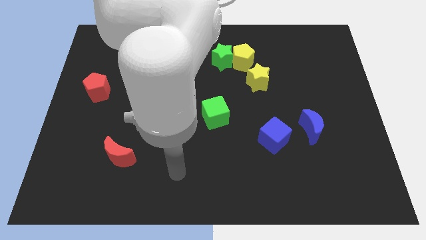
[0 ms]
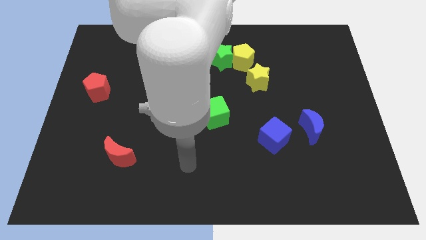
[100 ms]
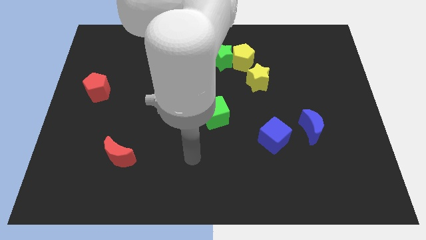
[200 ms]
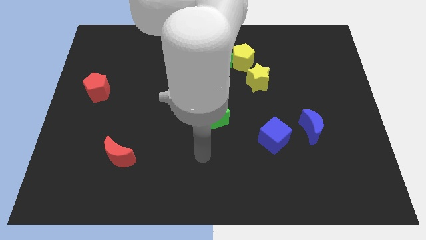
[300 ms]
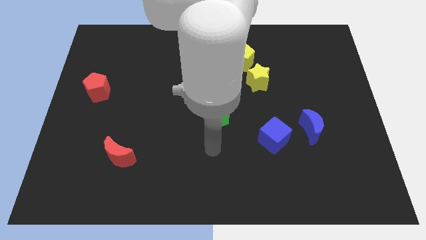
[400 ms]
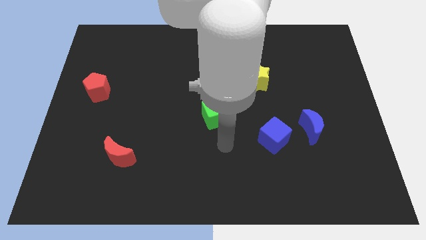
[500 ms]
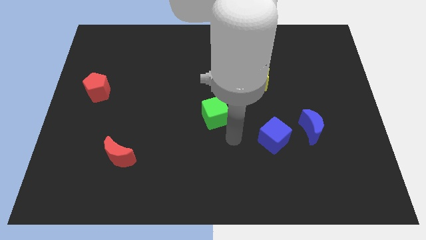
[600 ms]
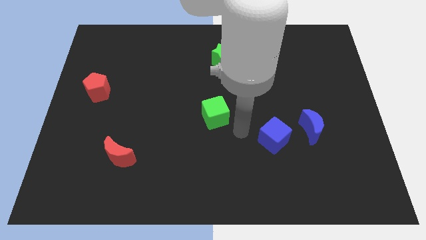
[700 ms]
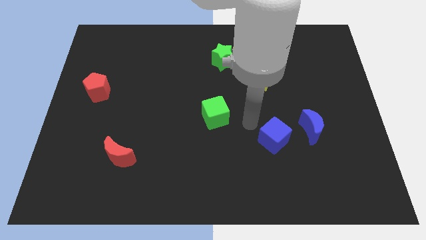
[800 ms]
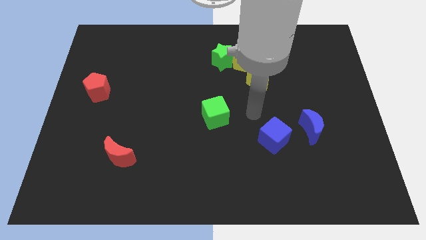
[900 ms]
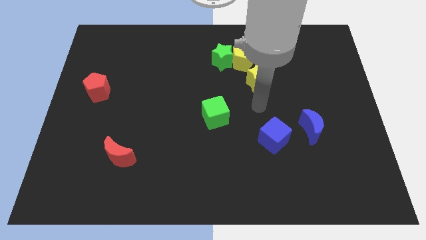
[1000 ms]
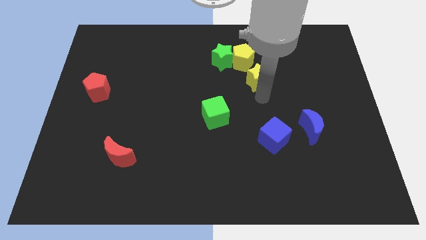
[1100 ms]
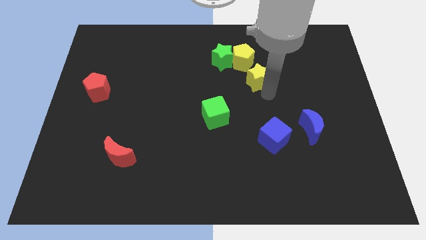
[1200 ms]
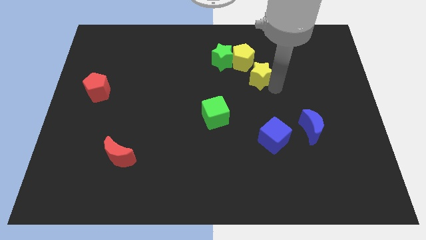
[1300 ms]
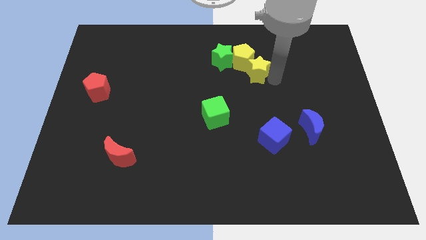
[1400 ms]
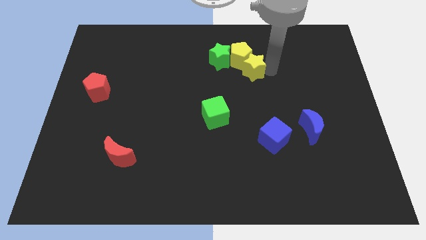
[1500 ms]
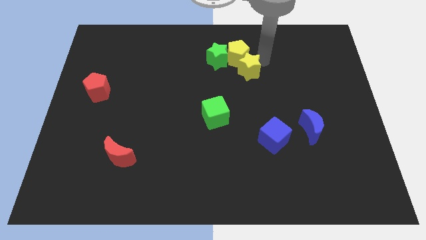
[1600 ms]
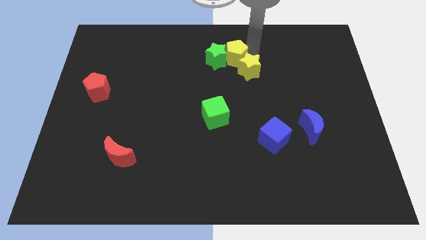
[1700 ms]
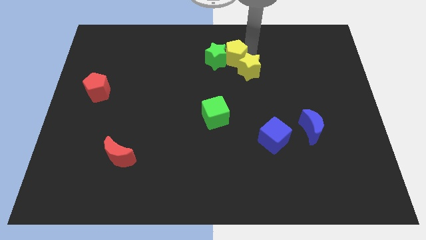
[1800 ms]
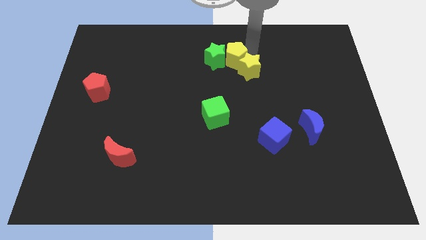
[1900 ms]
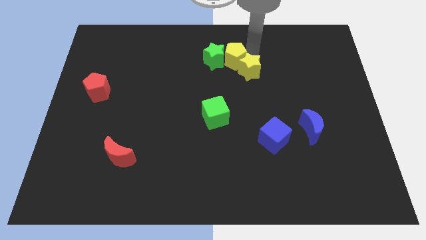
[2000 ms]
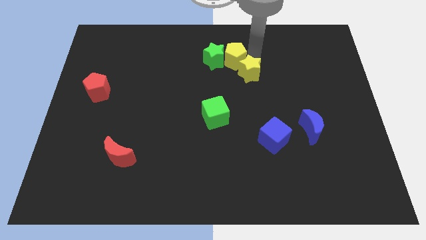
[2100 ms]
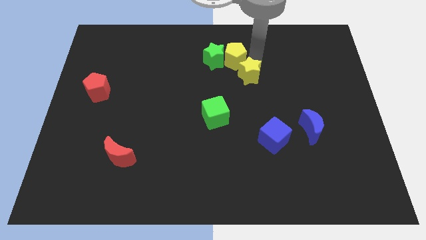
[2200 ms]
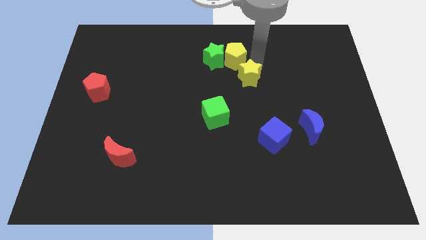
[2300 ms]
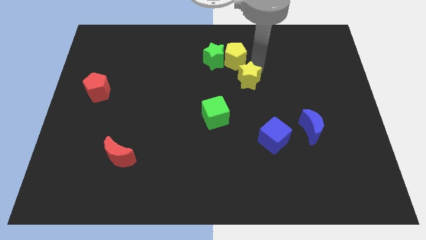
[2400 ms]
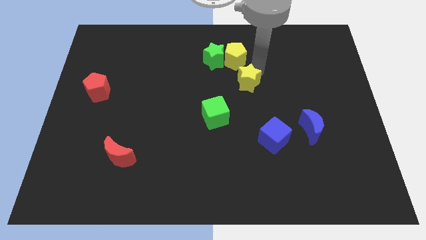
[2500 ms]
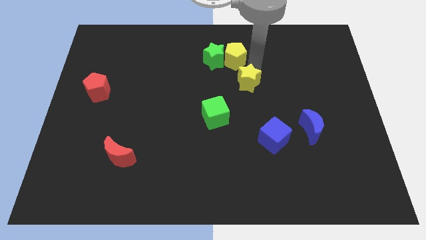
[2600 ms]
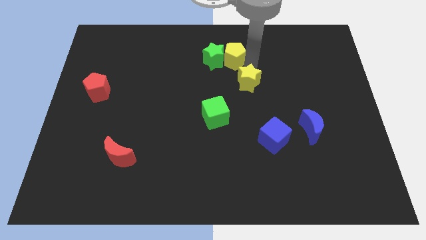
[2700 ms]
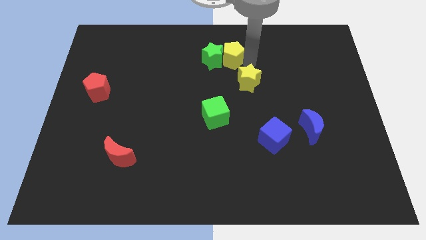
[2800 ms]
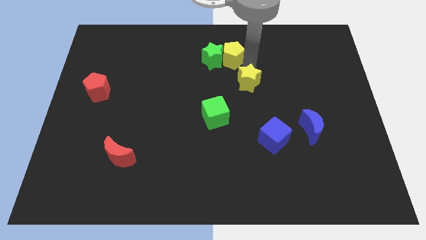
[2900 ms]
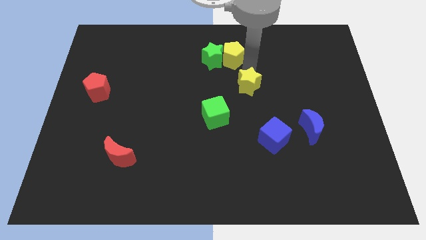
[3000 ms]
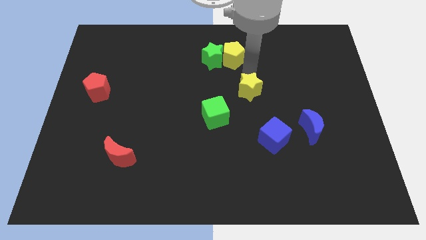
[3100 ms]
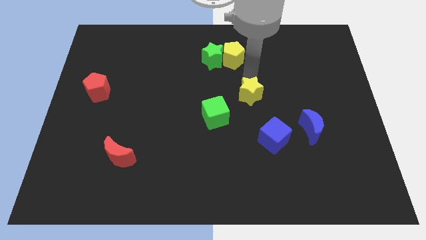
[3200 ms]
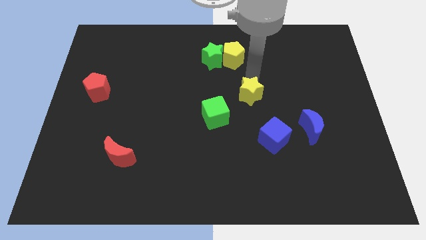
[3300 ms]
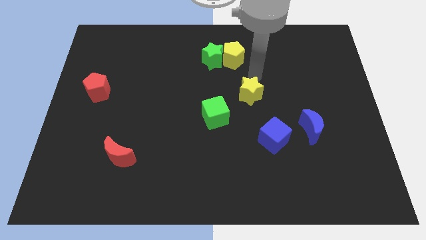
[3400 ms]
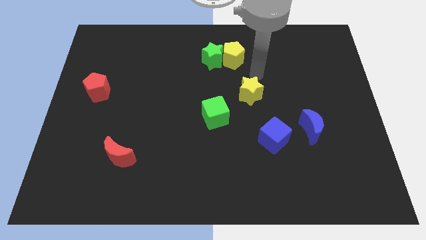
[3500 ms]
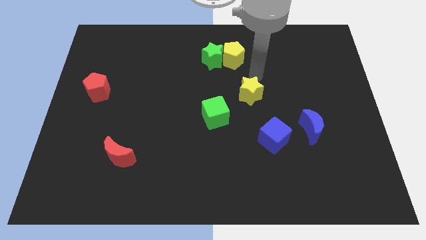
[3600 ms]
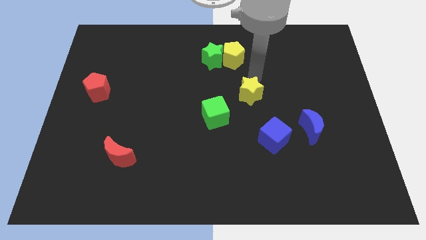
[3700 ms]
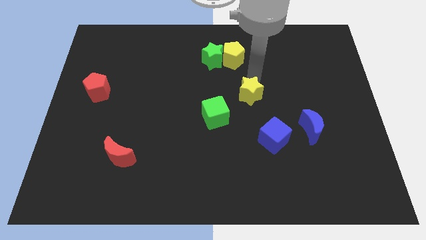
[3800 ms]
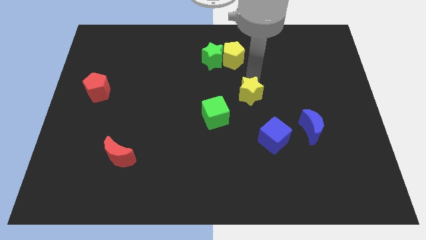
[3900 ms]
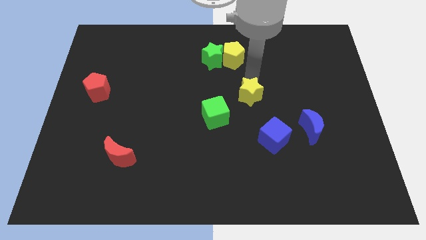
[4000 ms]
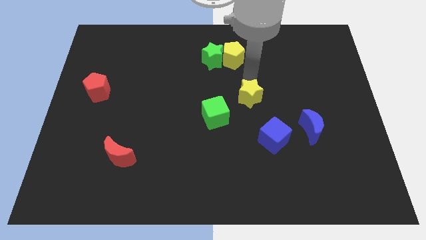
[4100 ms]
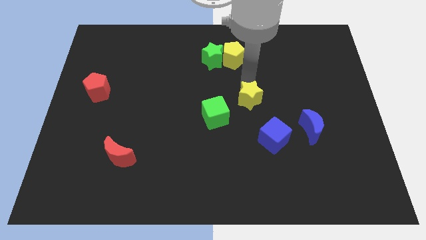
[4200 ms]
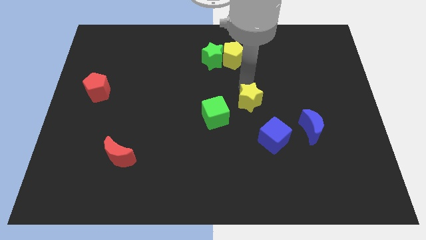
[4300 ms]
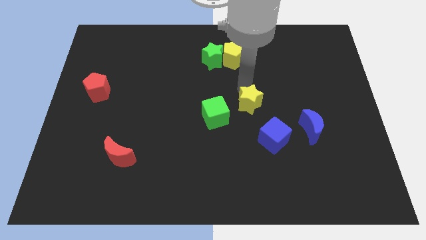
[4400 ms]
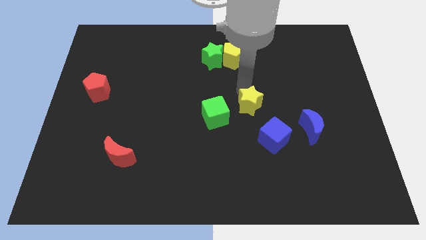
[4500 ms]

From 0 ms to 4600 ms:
slightly slide the yellow star downwards and left diagonally

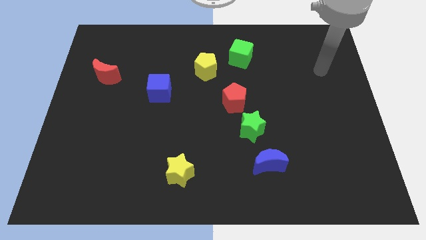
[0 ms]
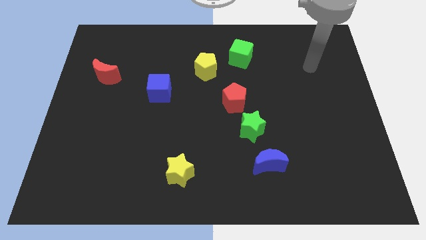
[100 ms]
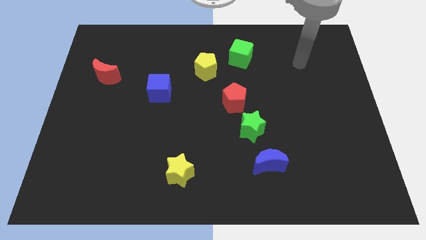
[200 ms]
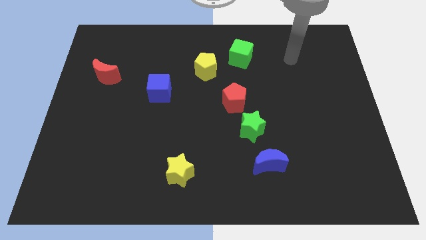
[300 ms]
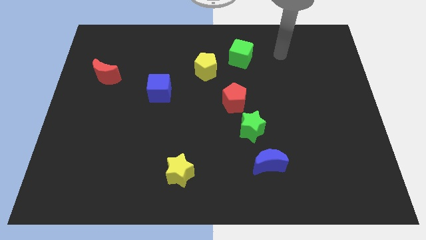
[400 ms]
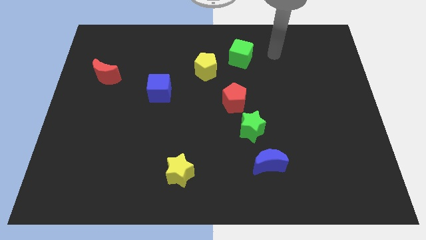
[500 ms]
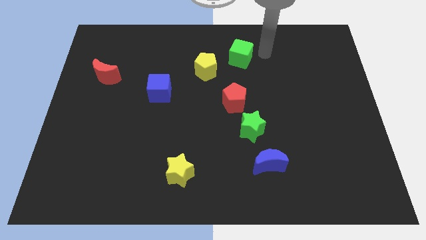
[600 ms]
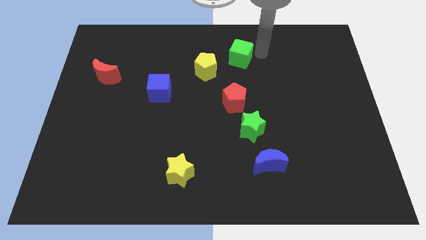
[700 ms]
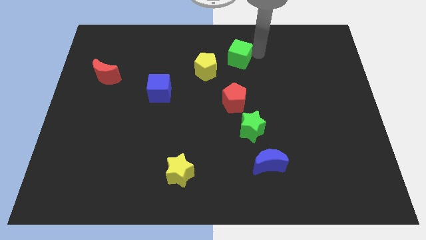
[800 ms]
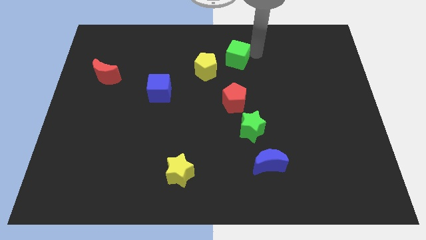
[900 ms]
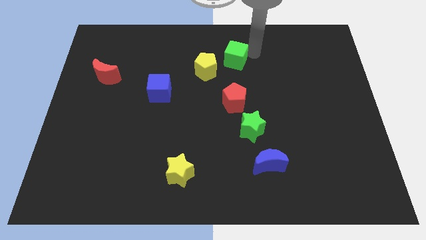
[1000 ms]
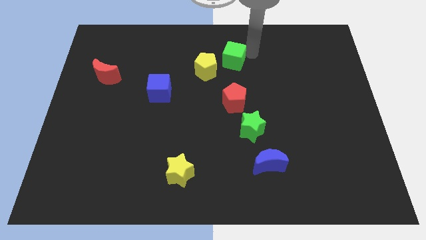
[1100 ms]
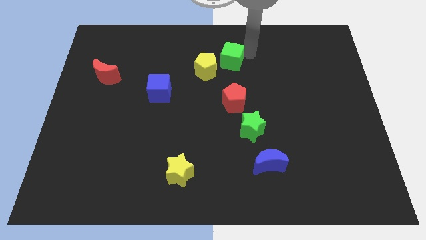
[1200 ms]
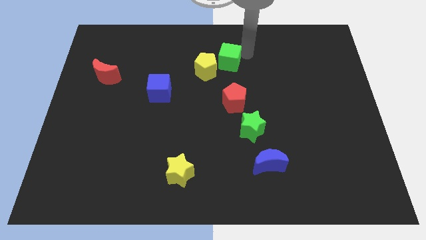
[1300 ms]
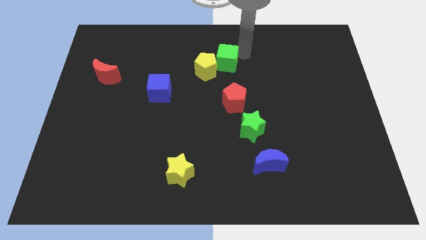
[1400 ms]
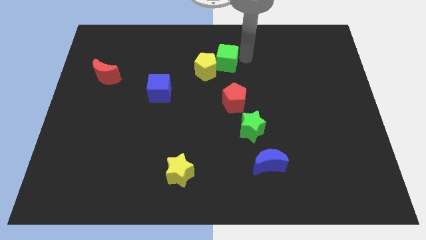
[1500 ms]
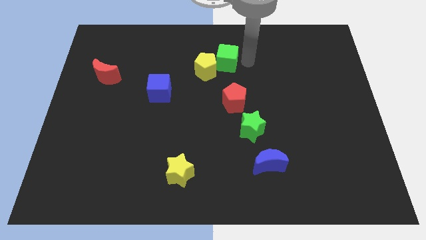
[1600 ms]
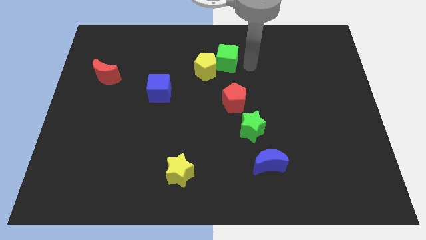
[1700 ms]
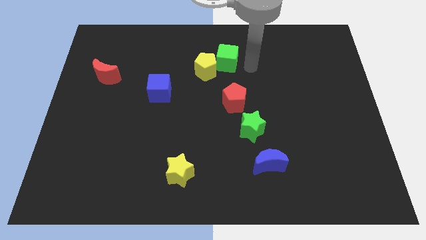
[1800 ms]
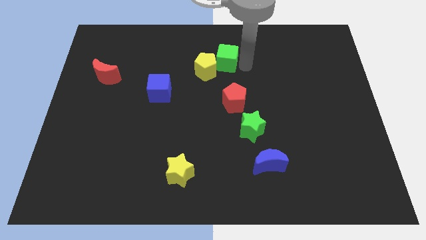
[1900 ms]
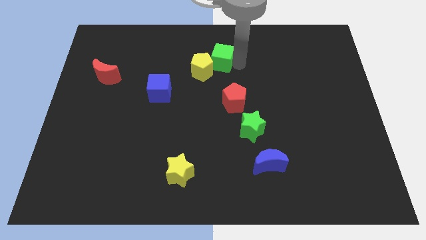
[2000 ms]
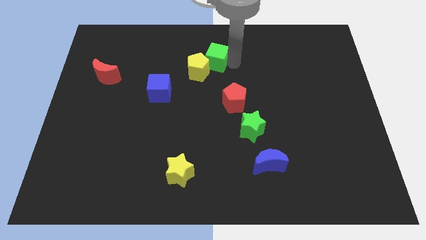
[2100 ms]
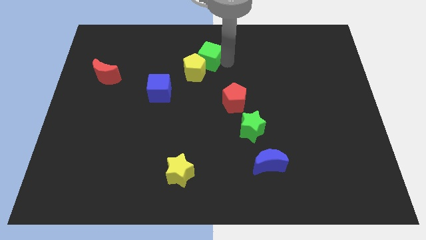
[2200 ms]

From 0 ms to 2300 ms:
slightly slide the green cube to the left

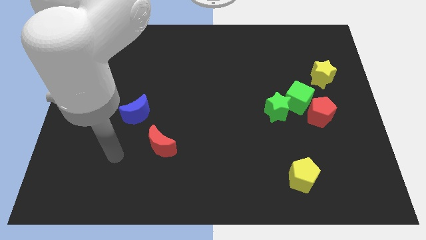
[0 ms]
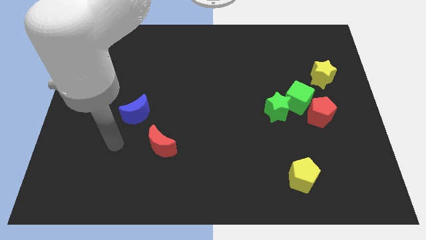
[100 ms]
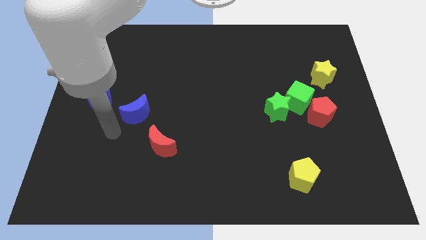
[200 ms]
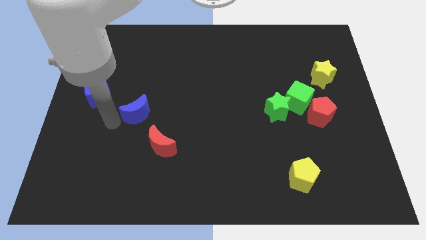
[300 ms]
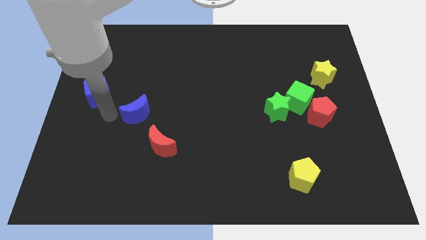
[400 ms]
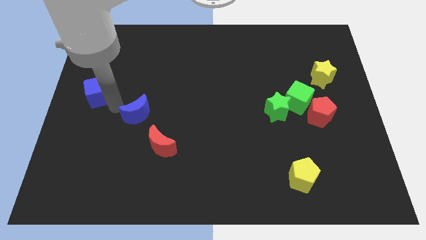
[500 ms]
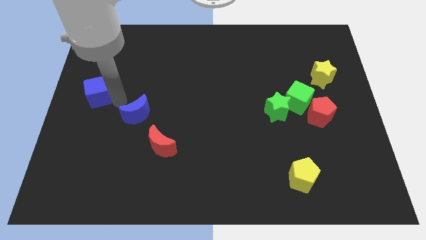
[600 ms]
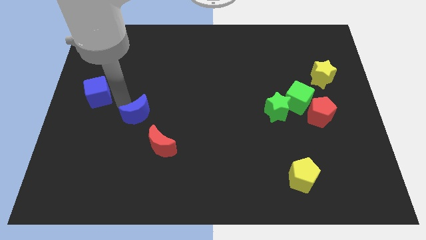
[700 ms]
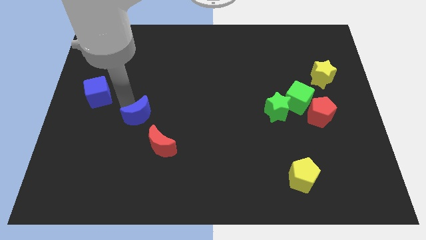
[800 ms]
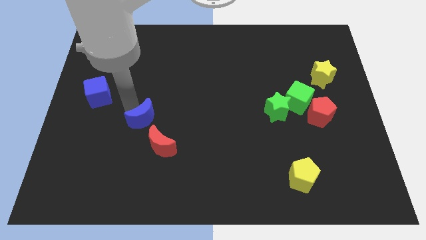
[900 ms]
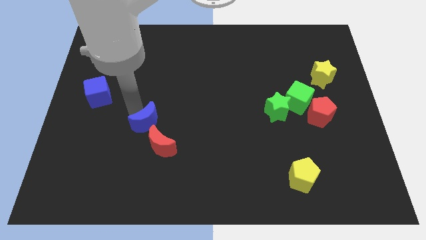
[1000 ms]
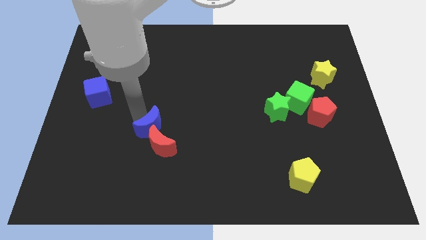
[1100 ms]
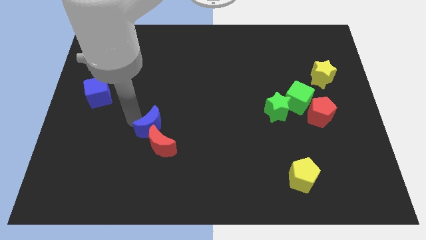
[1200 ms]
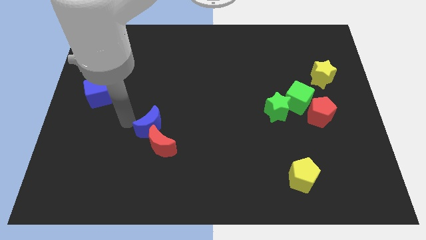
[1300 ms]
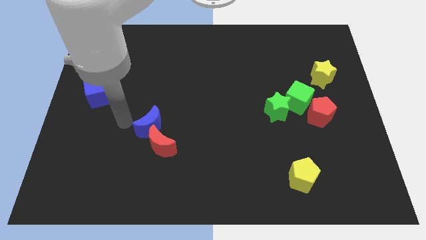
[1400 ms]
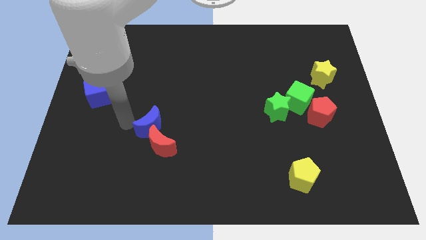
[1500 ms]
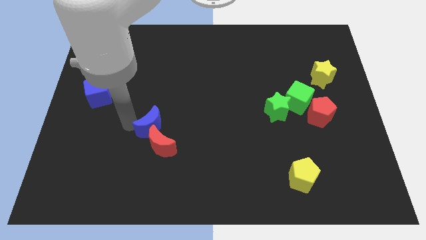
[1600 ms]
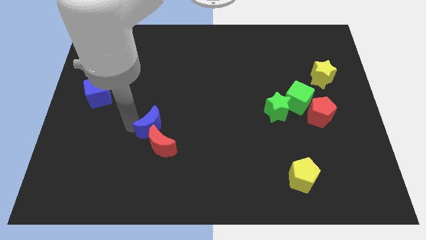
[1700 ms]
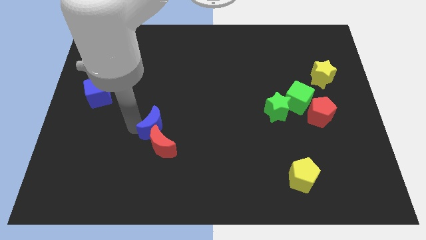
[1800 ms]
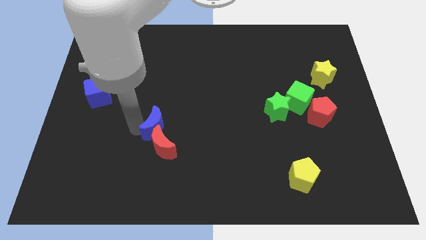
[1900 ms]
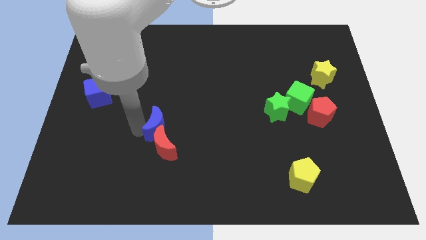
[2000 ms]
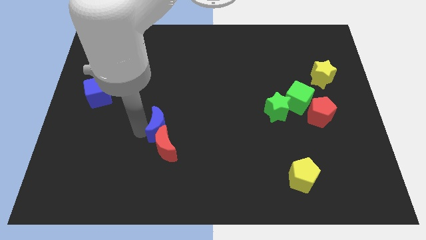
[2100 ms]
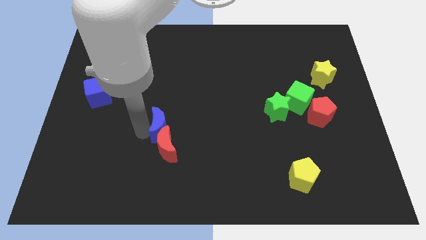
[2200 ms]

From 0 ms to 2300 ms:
slide the blue moon diagonally down and right a bit
